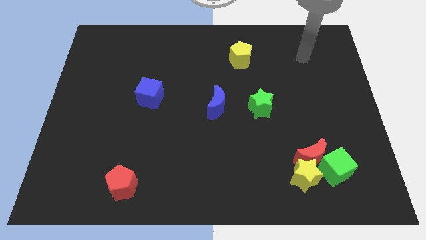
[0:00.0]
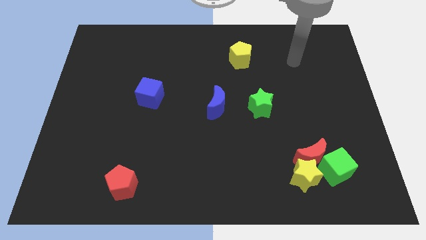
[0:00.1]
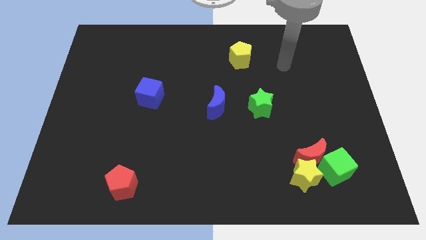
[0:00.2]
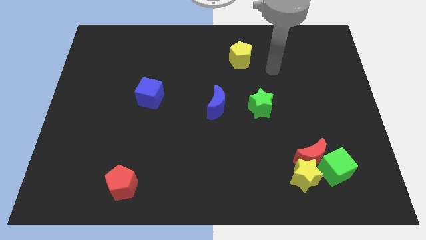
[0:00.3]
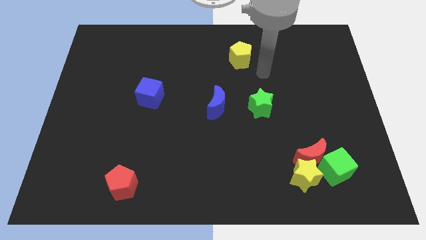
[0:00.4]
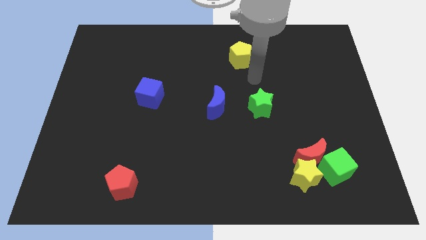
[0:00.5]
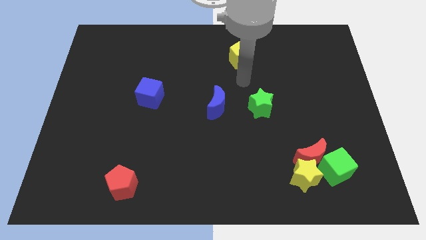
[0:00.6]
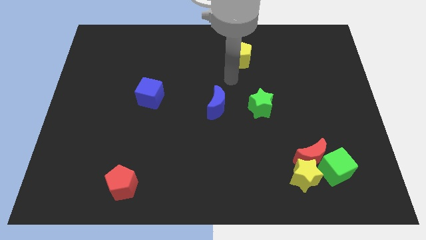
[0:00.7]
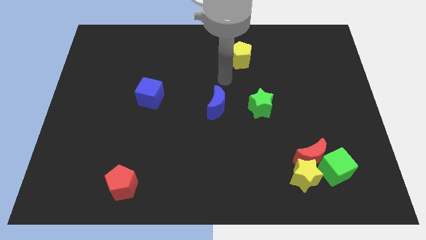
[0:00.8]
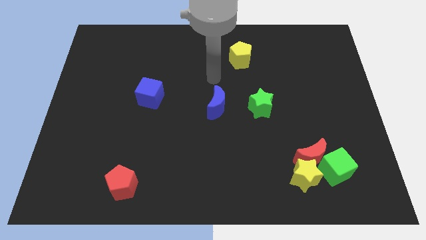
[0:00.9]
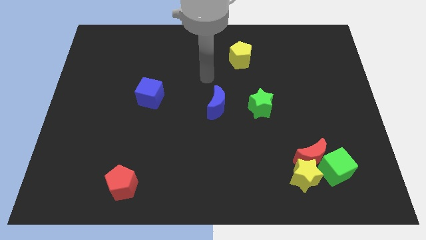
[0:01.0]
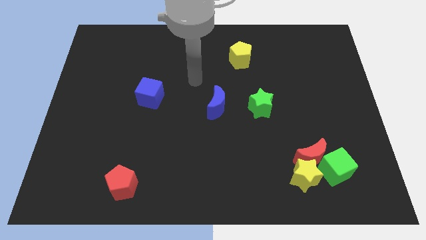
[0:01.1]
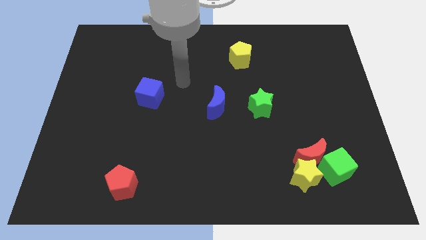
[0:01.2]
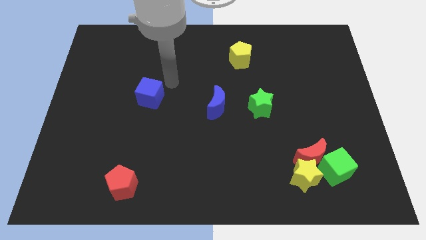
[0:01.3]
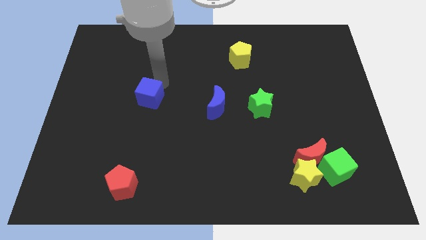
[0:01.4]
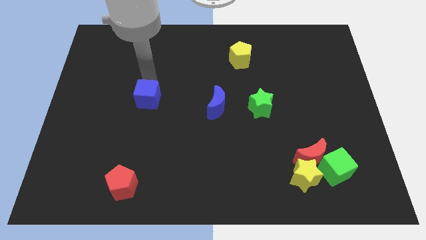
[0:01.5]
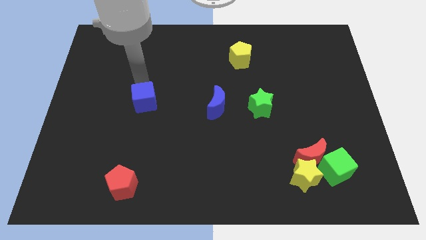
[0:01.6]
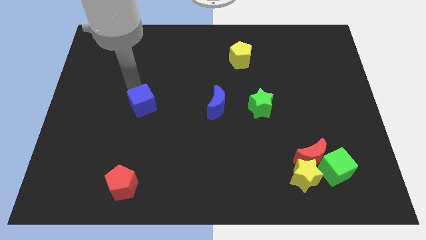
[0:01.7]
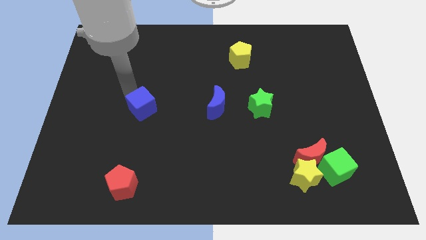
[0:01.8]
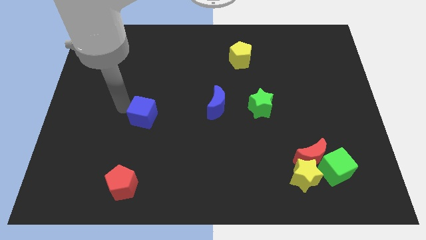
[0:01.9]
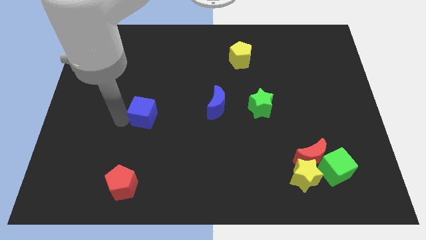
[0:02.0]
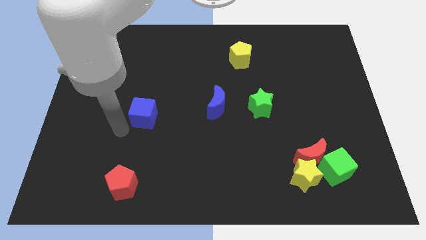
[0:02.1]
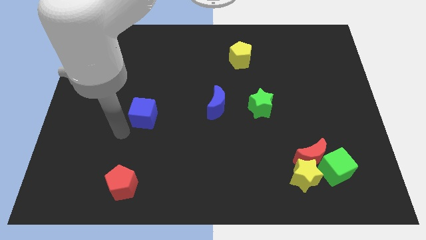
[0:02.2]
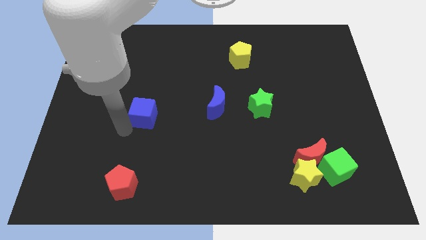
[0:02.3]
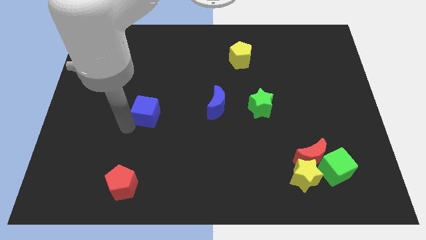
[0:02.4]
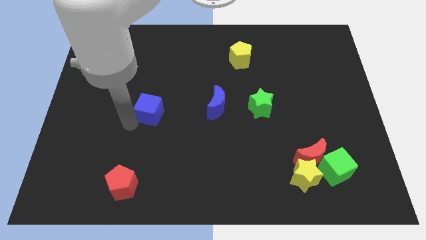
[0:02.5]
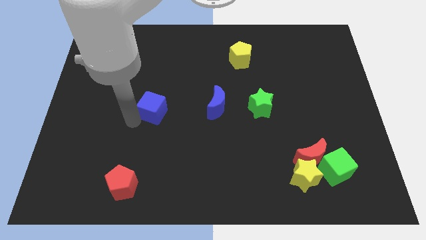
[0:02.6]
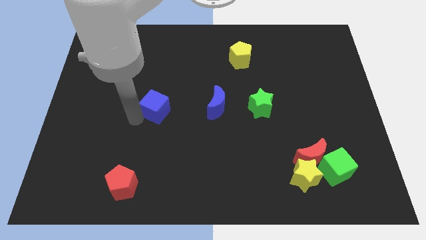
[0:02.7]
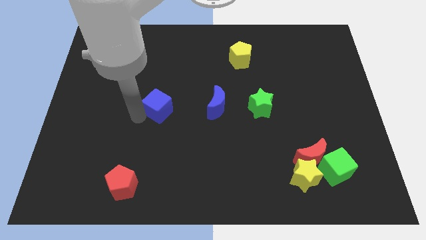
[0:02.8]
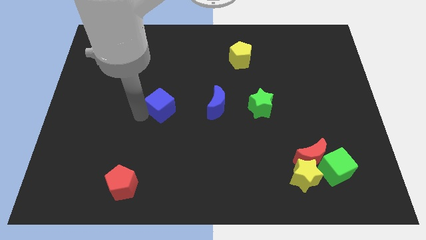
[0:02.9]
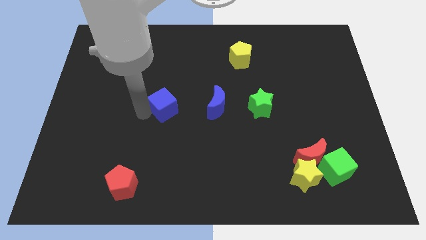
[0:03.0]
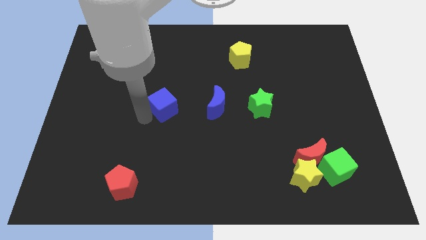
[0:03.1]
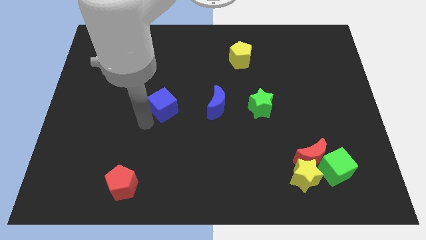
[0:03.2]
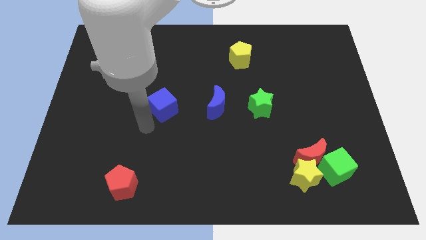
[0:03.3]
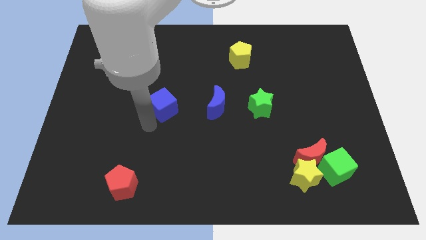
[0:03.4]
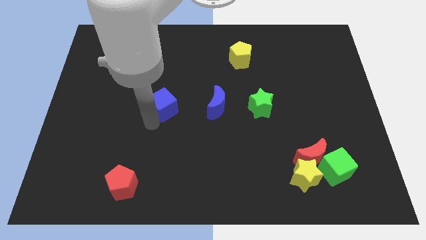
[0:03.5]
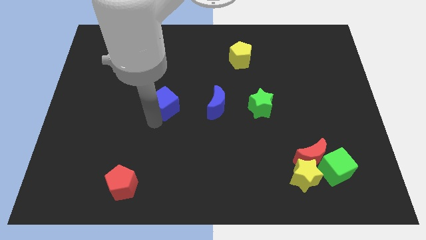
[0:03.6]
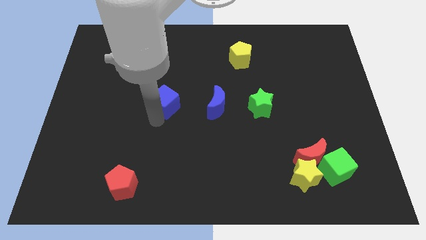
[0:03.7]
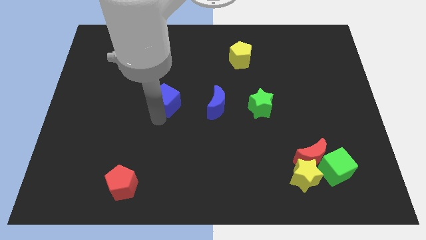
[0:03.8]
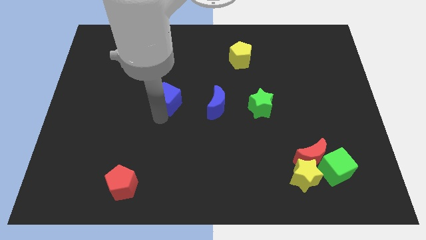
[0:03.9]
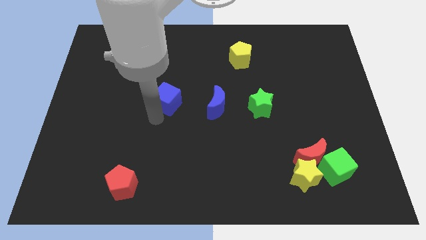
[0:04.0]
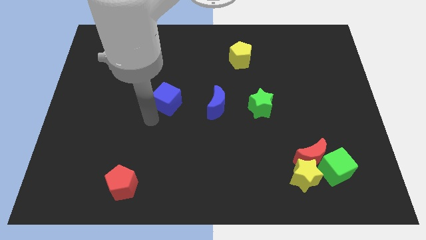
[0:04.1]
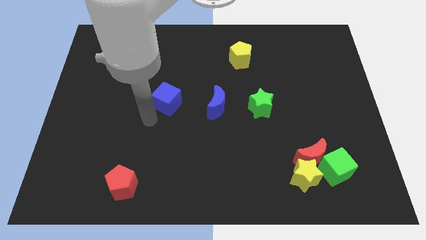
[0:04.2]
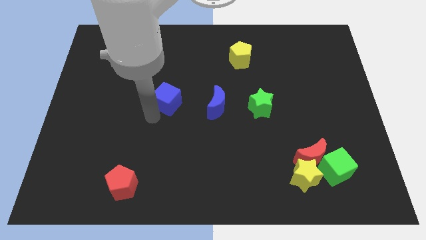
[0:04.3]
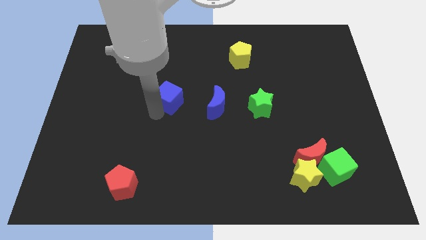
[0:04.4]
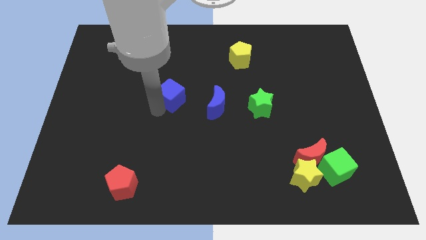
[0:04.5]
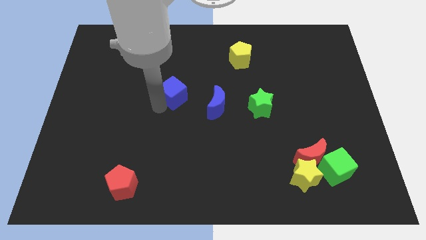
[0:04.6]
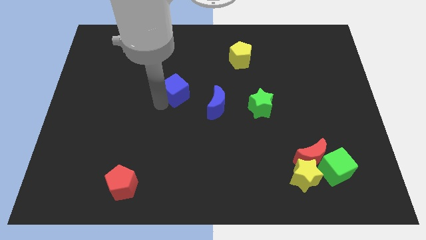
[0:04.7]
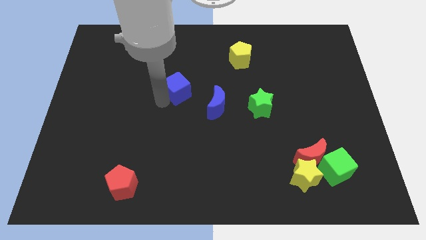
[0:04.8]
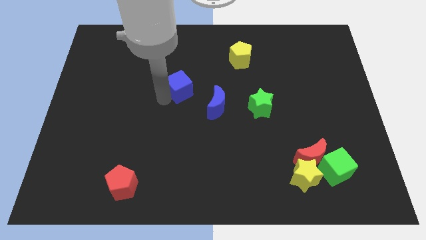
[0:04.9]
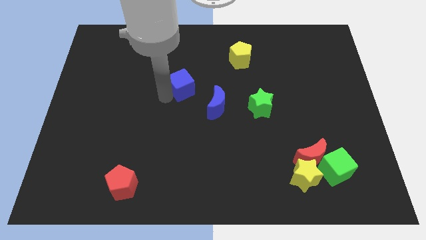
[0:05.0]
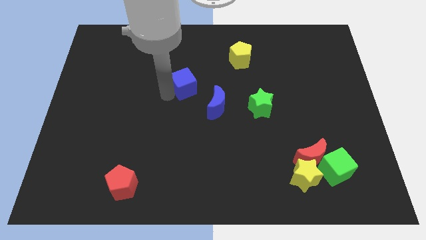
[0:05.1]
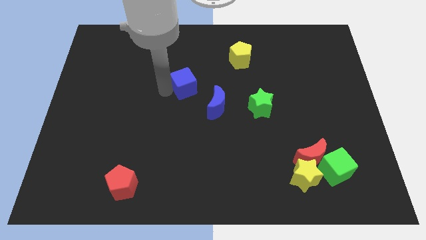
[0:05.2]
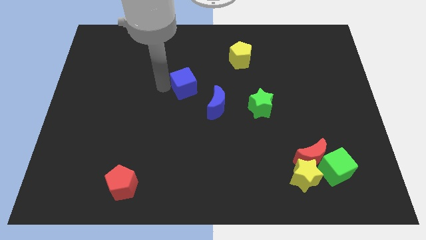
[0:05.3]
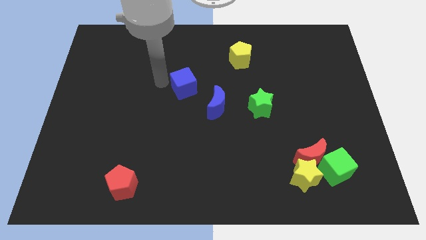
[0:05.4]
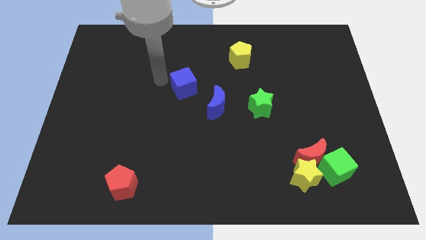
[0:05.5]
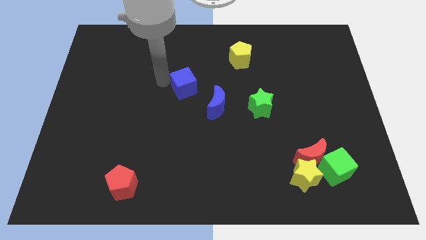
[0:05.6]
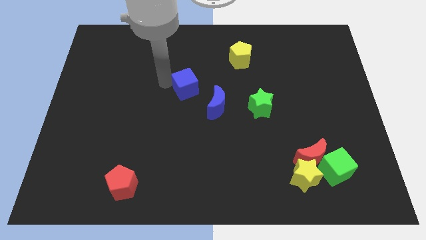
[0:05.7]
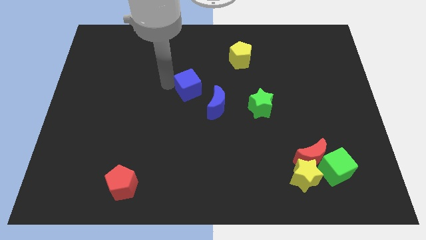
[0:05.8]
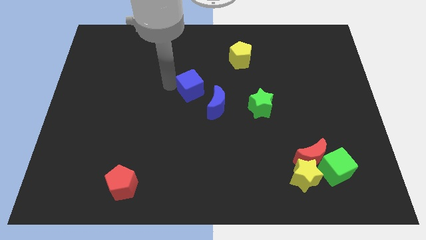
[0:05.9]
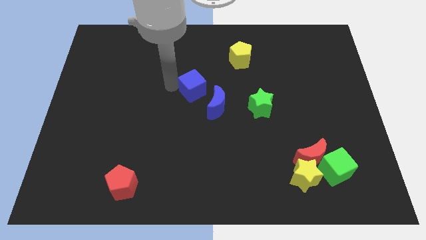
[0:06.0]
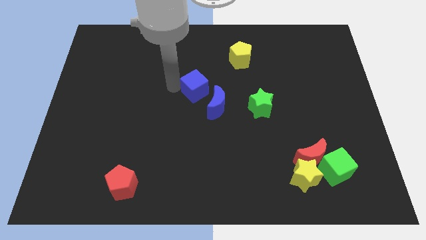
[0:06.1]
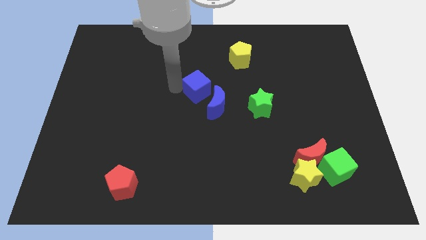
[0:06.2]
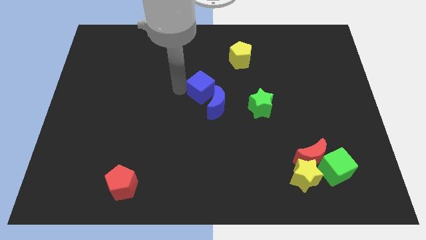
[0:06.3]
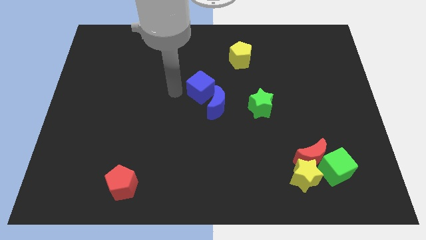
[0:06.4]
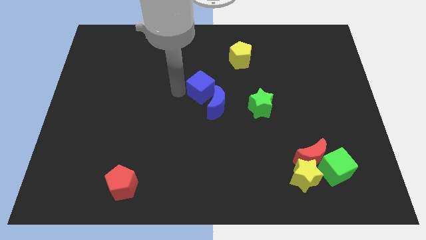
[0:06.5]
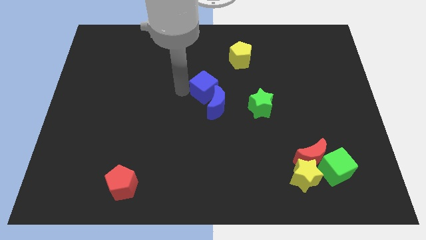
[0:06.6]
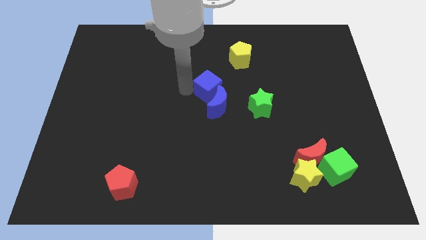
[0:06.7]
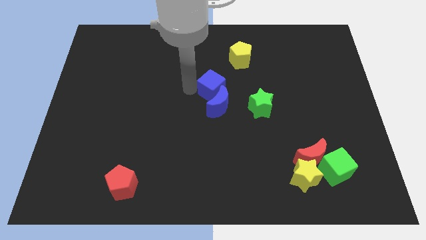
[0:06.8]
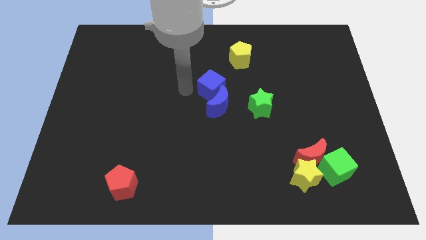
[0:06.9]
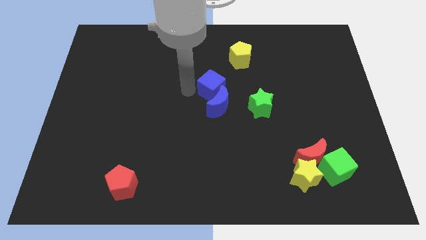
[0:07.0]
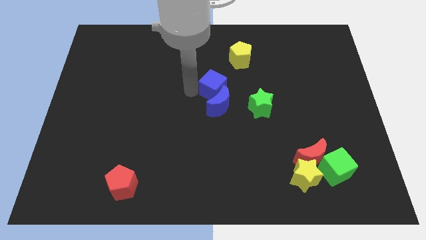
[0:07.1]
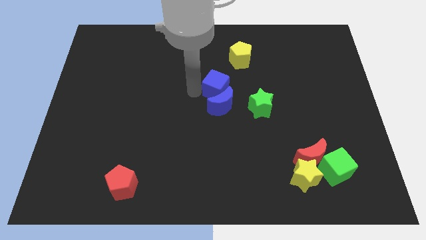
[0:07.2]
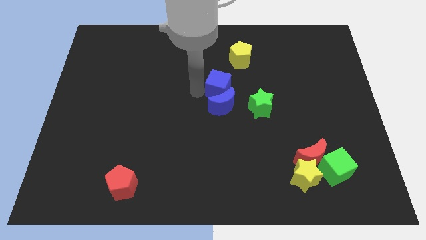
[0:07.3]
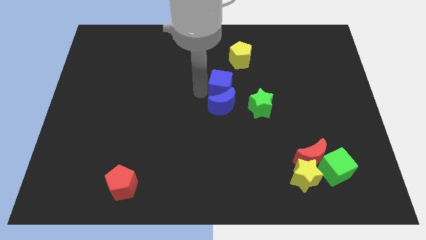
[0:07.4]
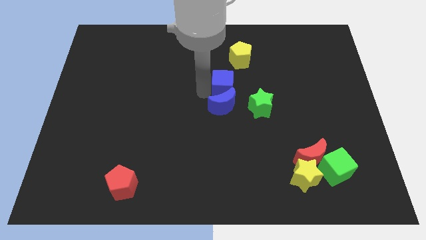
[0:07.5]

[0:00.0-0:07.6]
move the blue cube to the bottom side of the yellow pentagon
